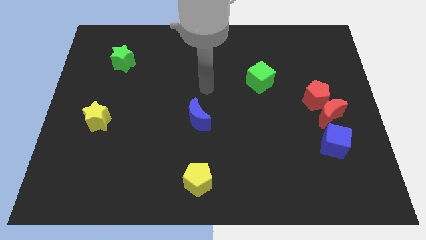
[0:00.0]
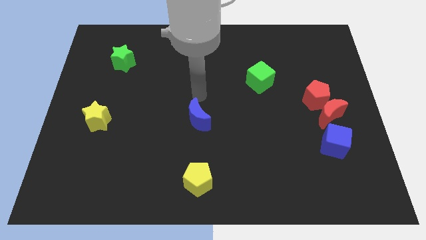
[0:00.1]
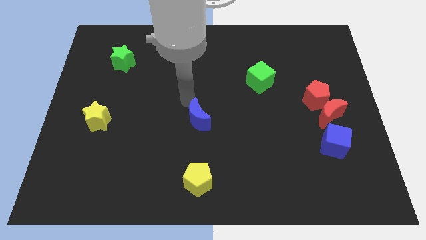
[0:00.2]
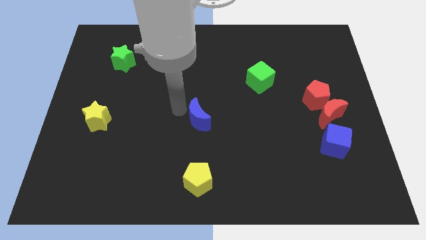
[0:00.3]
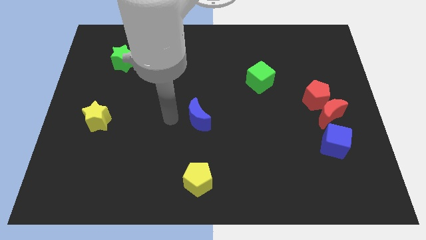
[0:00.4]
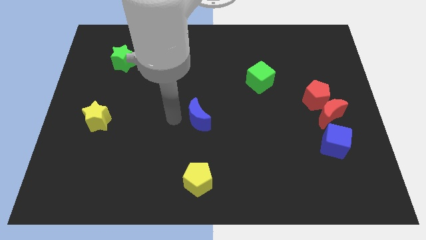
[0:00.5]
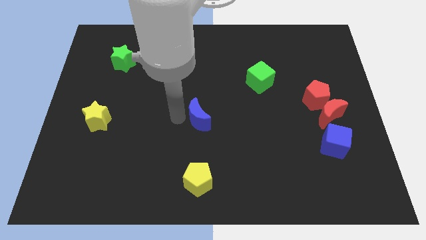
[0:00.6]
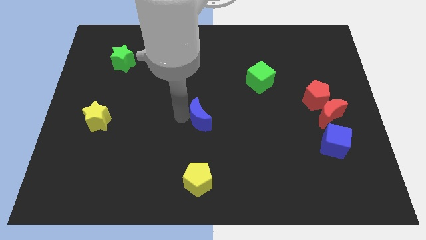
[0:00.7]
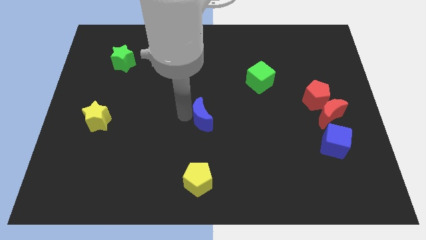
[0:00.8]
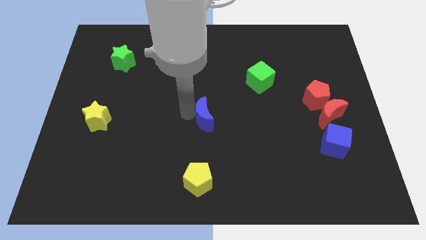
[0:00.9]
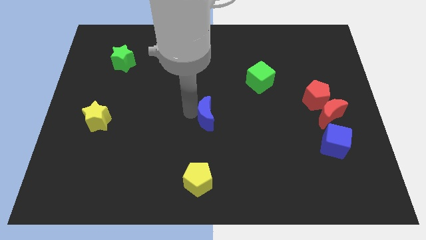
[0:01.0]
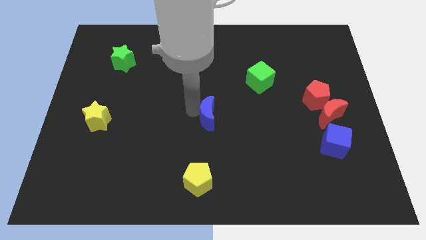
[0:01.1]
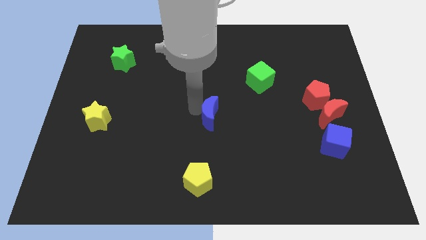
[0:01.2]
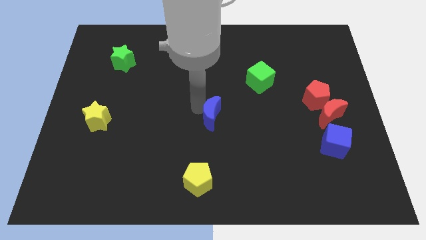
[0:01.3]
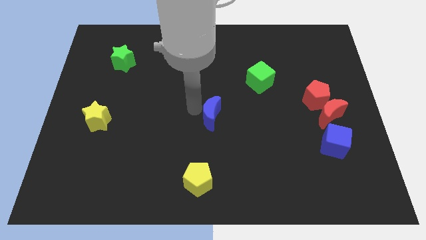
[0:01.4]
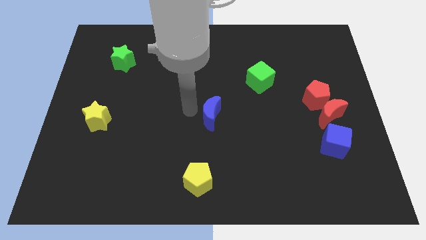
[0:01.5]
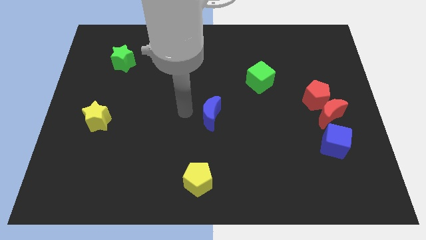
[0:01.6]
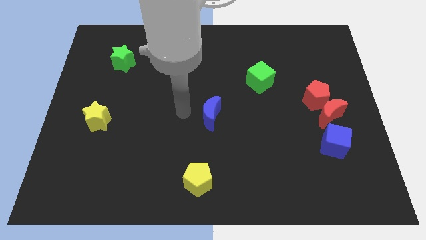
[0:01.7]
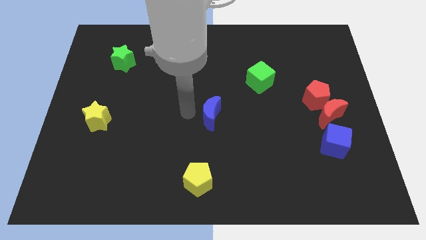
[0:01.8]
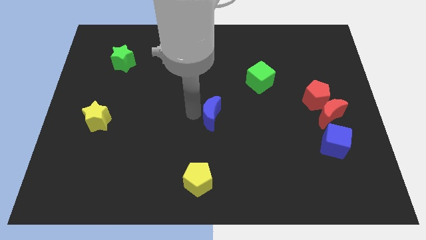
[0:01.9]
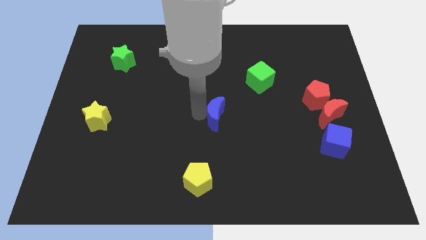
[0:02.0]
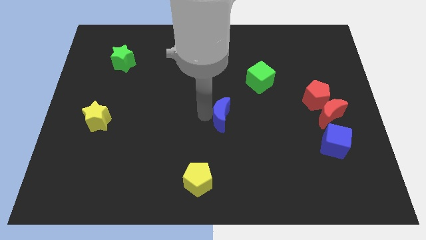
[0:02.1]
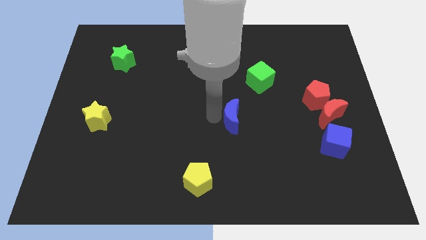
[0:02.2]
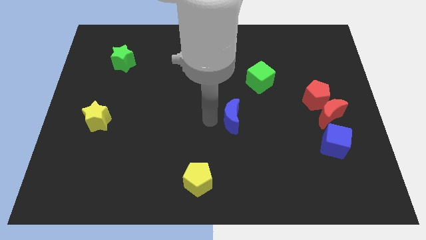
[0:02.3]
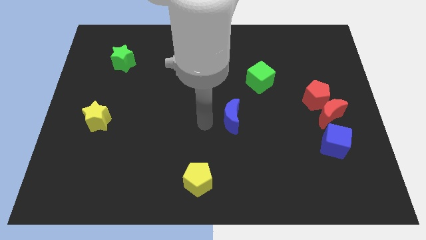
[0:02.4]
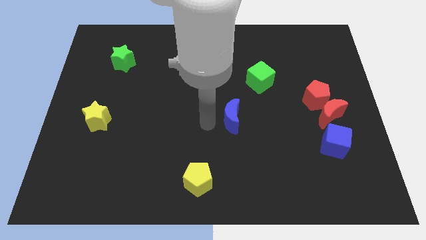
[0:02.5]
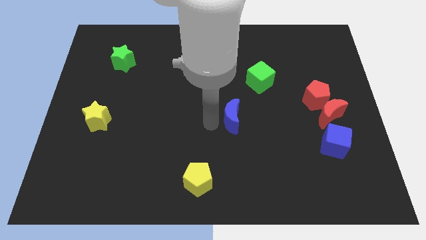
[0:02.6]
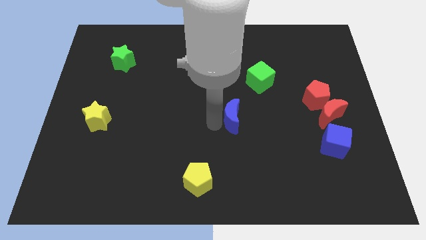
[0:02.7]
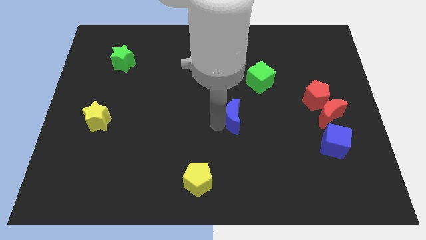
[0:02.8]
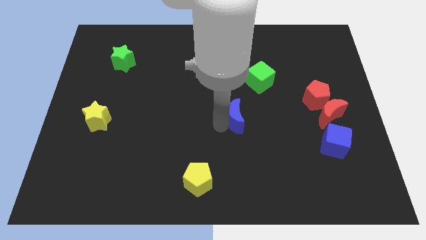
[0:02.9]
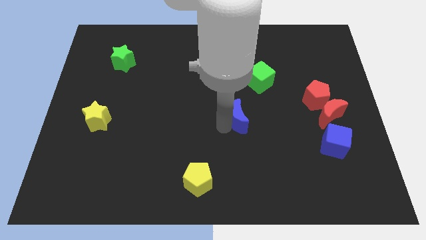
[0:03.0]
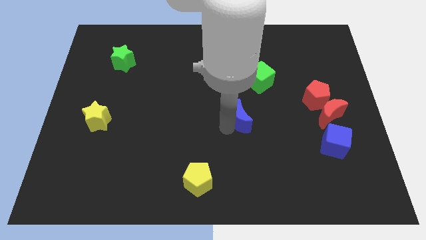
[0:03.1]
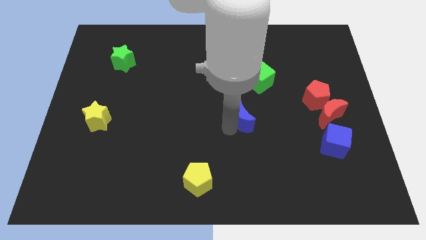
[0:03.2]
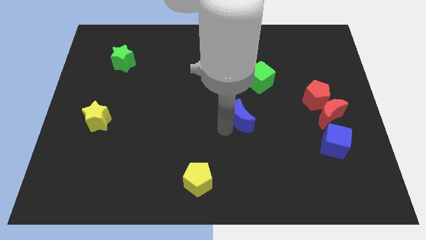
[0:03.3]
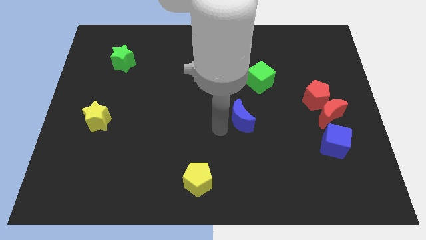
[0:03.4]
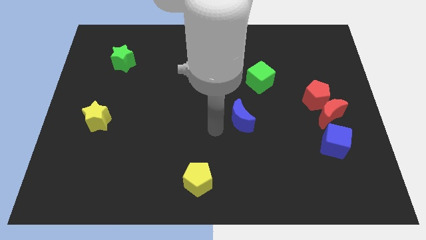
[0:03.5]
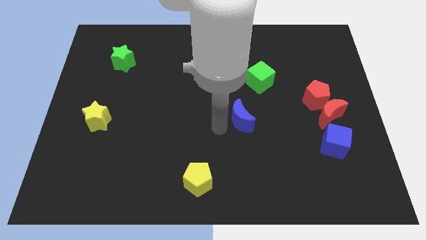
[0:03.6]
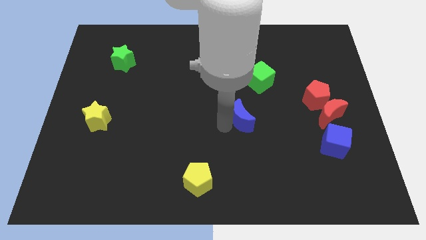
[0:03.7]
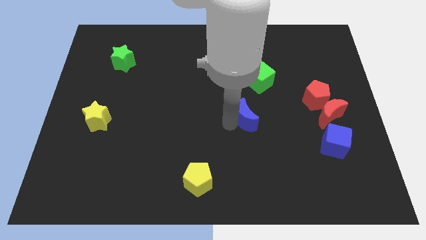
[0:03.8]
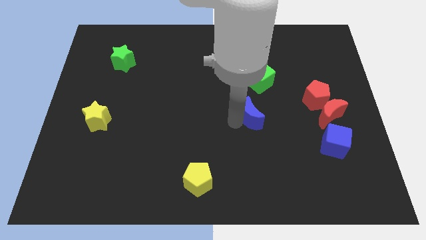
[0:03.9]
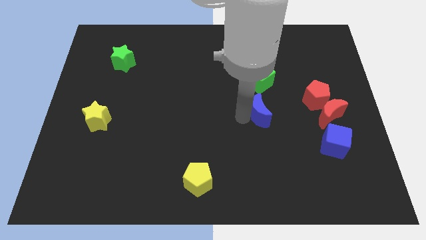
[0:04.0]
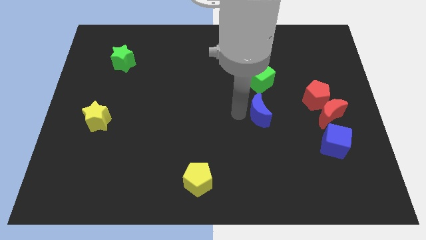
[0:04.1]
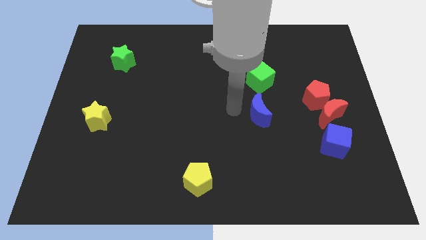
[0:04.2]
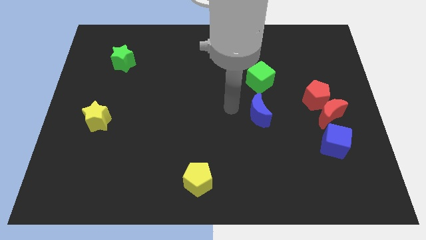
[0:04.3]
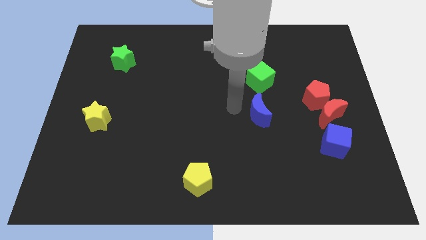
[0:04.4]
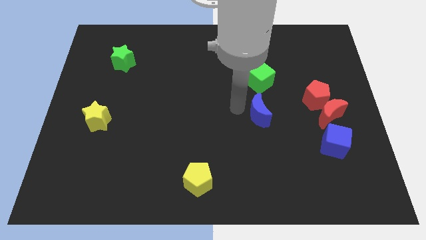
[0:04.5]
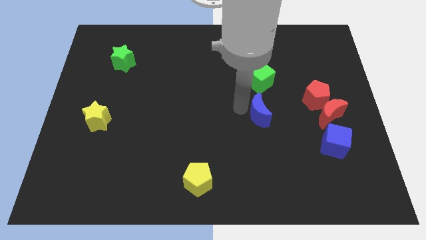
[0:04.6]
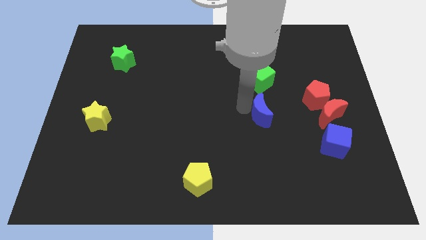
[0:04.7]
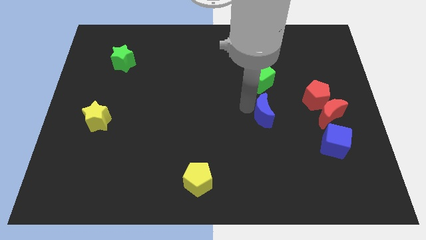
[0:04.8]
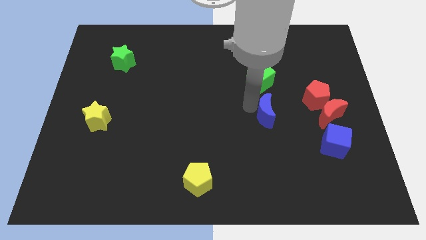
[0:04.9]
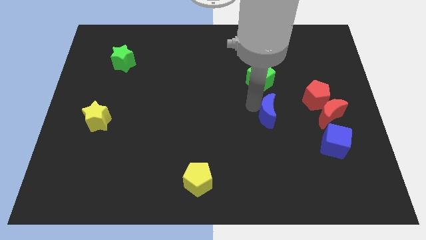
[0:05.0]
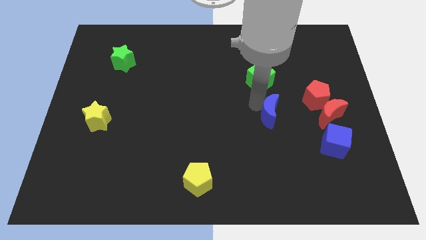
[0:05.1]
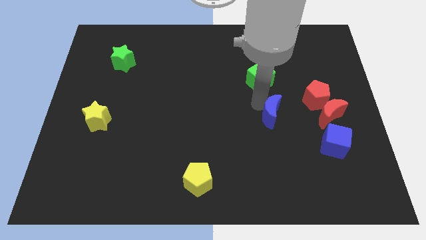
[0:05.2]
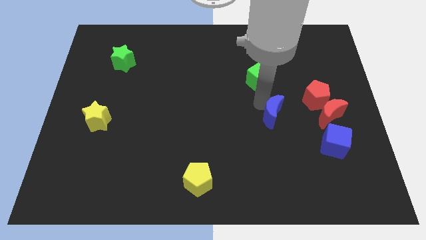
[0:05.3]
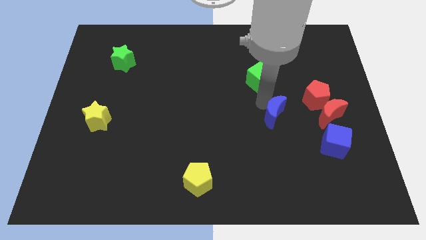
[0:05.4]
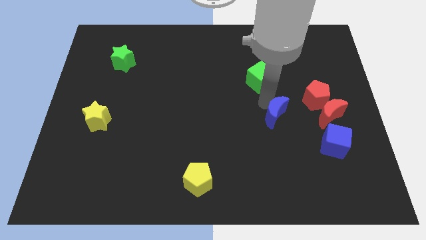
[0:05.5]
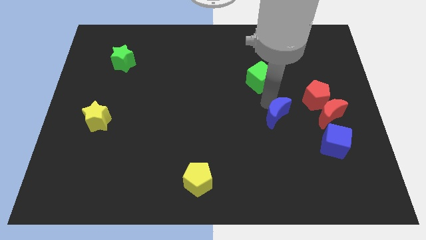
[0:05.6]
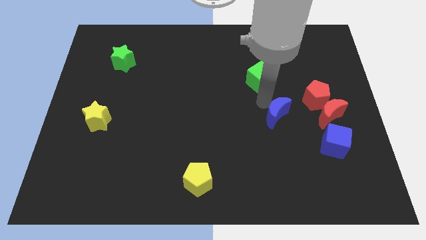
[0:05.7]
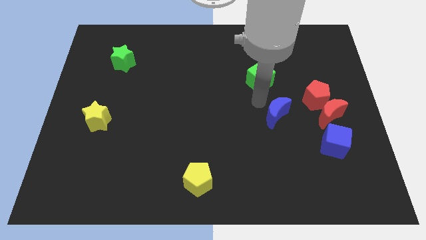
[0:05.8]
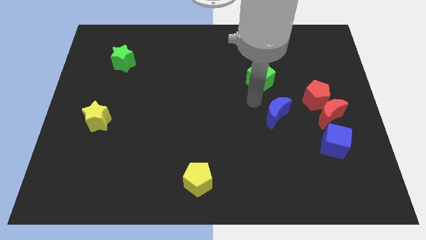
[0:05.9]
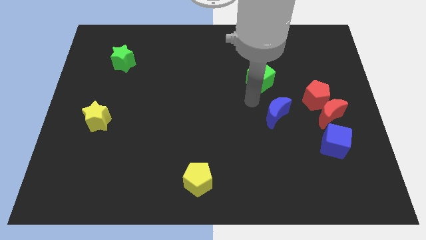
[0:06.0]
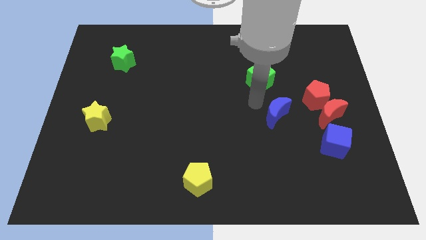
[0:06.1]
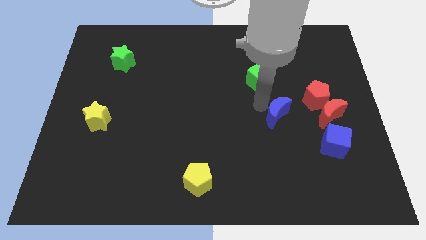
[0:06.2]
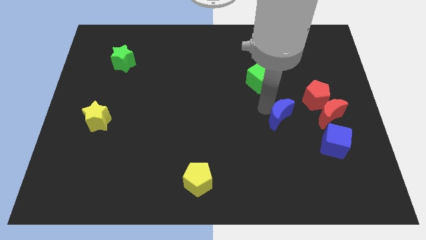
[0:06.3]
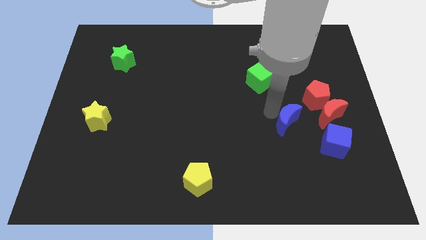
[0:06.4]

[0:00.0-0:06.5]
put the blue moon diagonally up and to the left of the blue cube

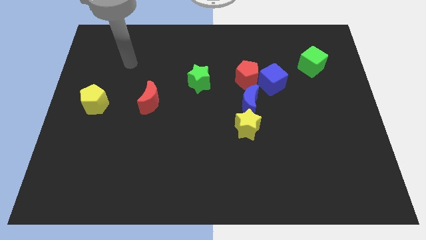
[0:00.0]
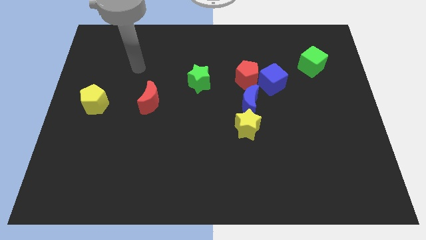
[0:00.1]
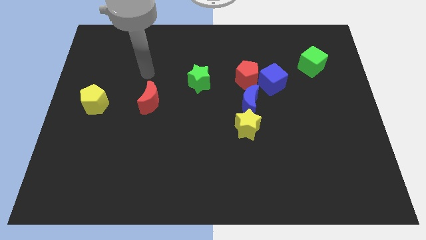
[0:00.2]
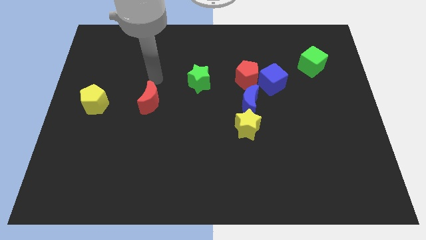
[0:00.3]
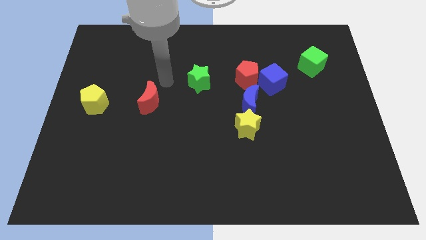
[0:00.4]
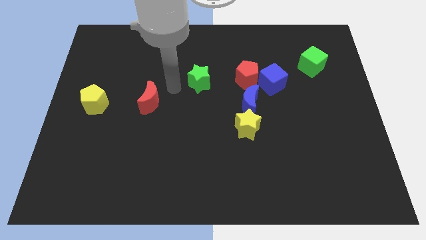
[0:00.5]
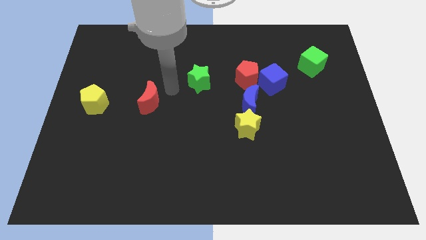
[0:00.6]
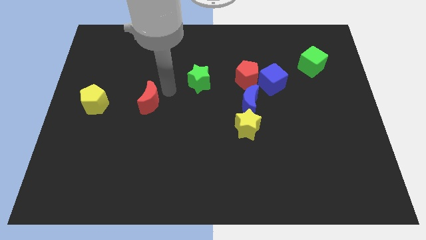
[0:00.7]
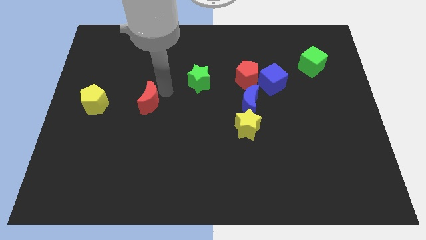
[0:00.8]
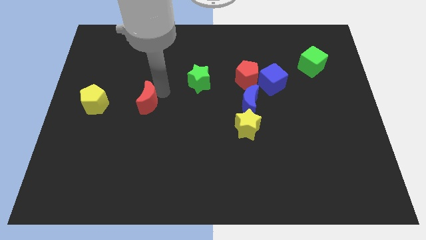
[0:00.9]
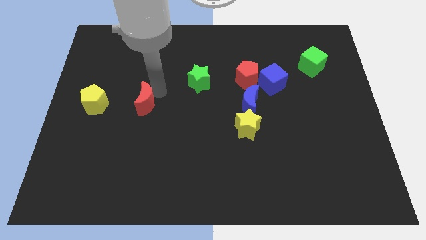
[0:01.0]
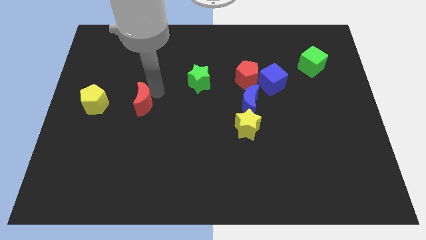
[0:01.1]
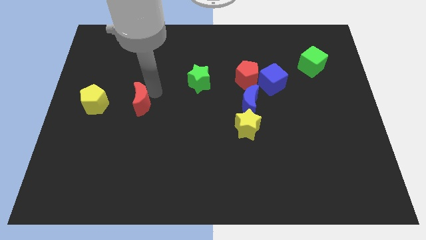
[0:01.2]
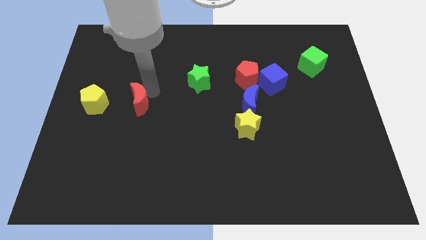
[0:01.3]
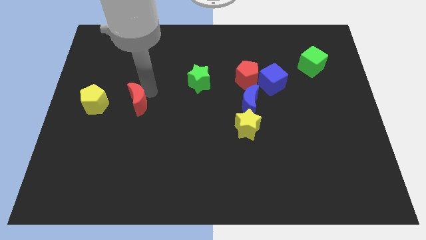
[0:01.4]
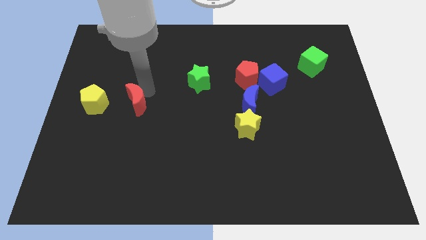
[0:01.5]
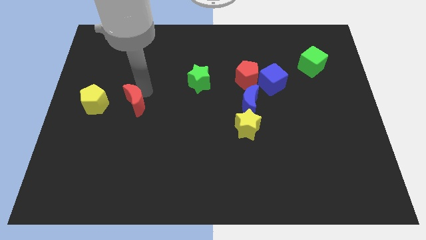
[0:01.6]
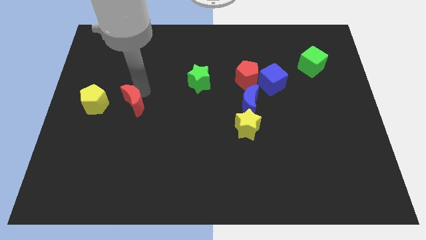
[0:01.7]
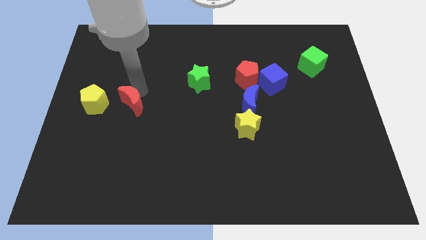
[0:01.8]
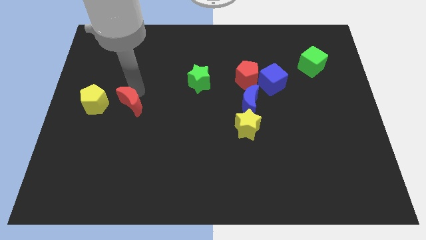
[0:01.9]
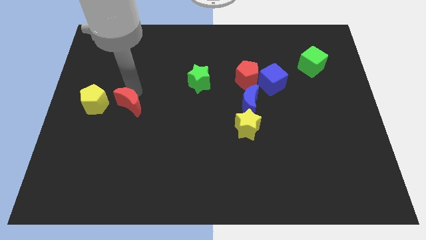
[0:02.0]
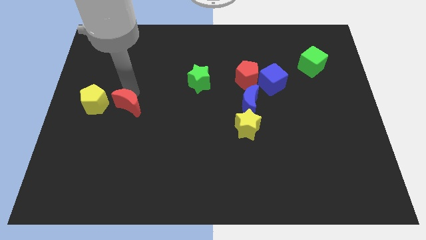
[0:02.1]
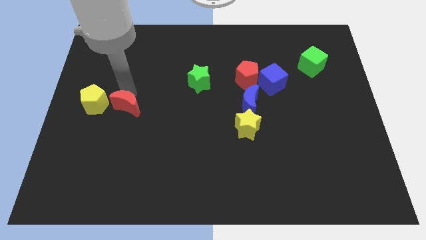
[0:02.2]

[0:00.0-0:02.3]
slide the red moon to the bottom right of the yellow pentagon
